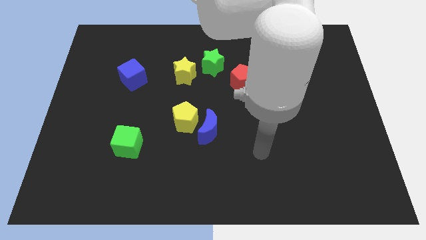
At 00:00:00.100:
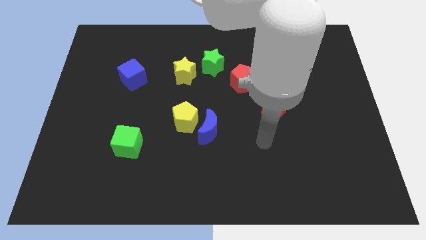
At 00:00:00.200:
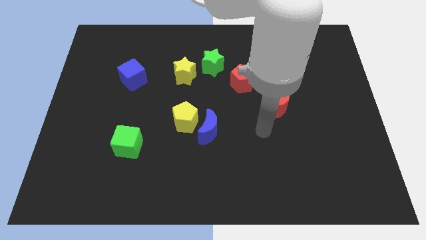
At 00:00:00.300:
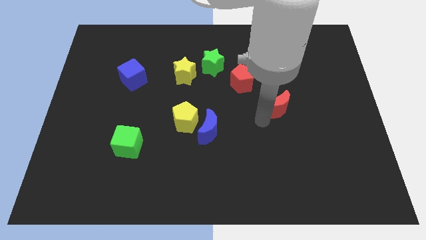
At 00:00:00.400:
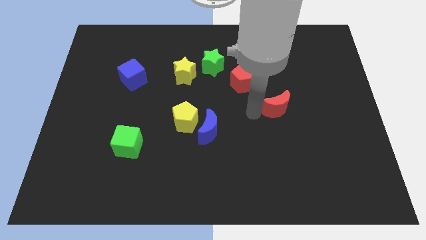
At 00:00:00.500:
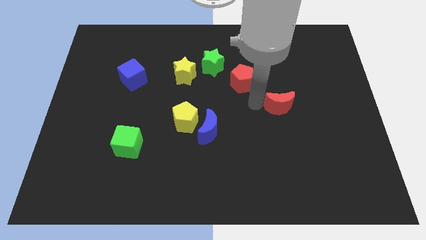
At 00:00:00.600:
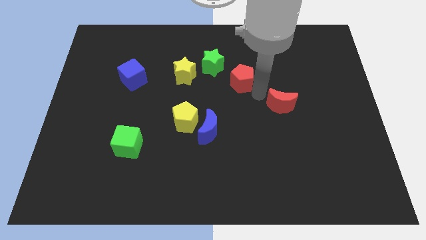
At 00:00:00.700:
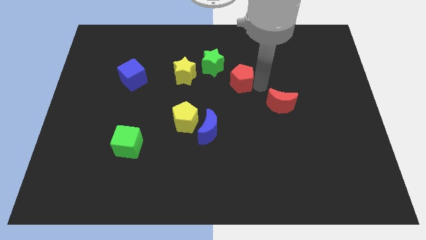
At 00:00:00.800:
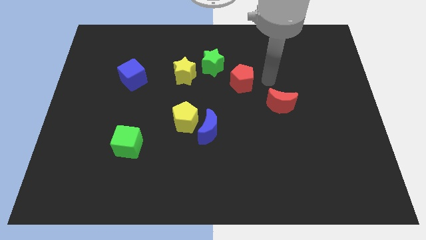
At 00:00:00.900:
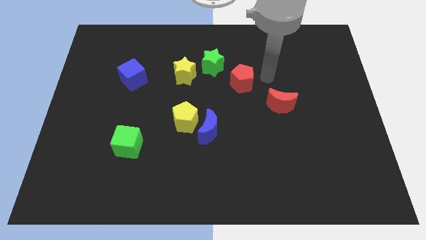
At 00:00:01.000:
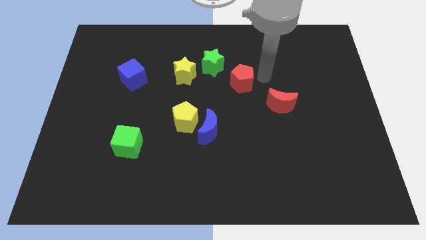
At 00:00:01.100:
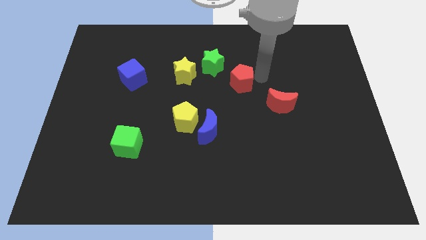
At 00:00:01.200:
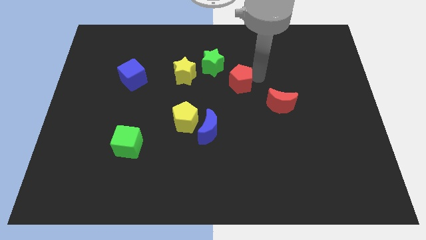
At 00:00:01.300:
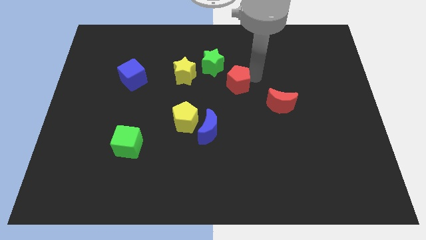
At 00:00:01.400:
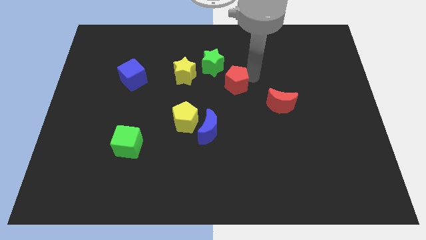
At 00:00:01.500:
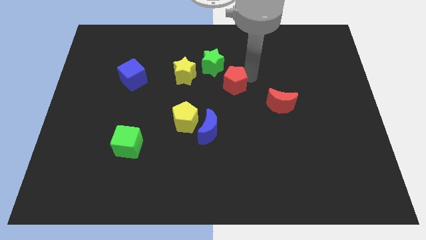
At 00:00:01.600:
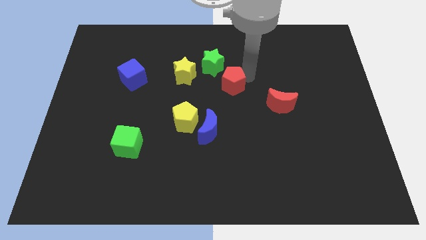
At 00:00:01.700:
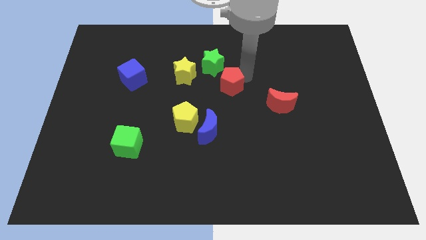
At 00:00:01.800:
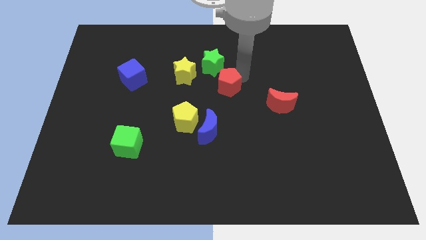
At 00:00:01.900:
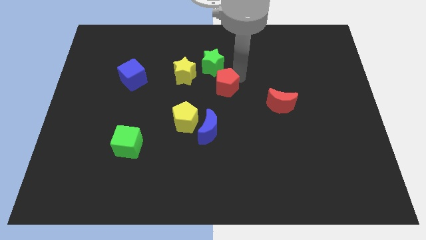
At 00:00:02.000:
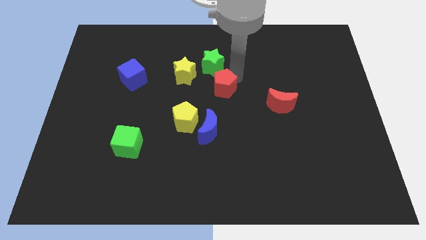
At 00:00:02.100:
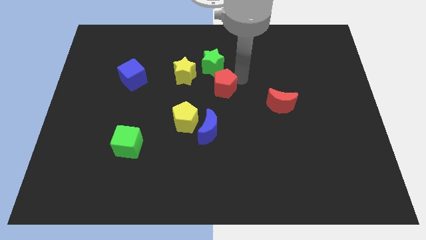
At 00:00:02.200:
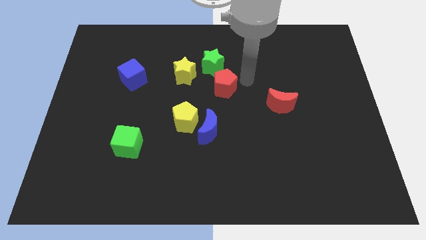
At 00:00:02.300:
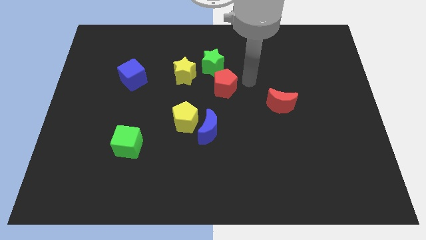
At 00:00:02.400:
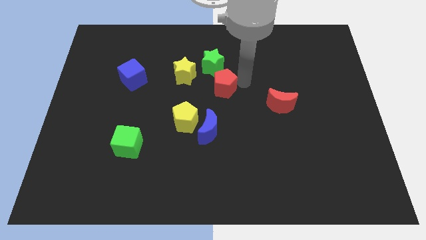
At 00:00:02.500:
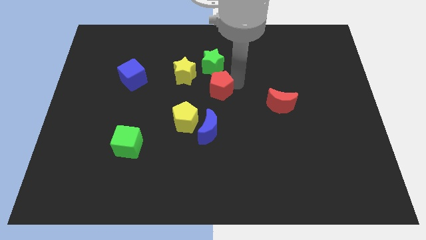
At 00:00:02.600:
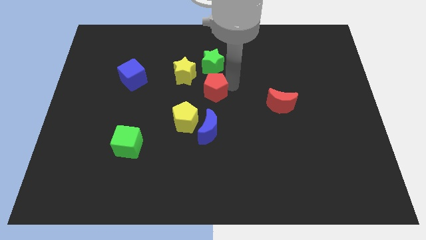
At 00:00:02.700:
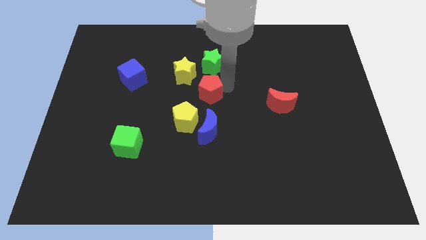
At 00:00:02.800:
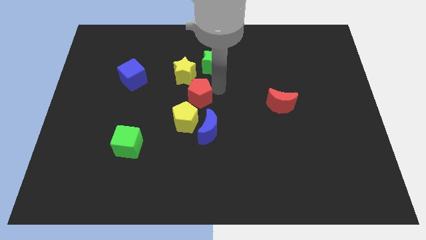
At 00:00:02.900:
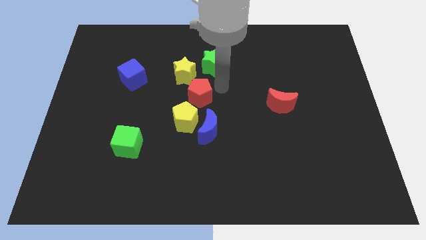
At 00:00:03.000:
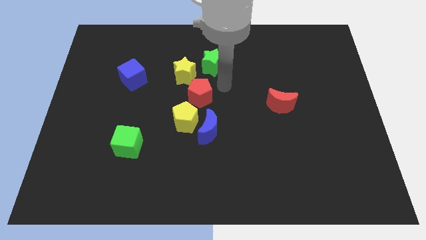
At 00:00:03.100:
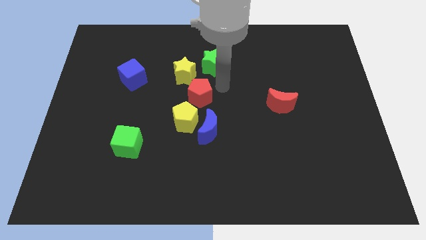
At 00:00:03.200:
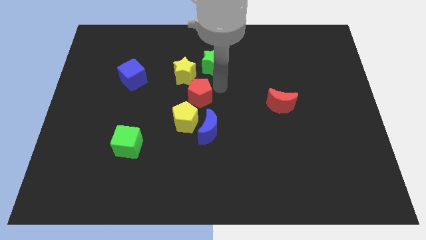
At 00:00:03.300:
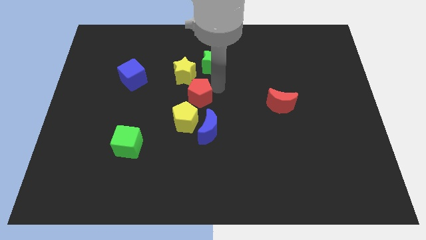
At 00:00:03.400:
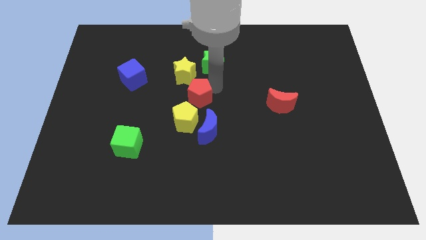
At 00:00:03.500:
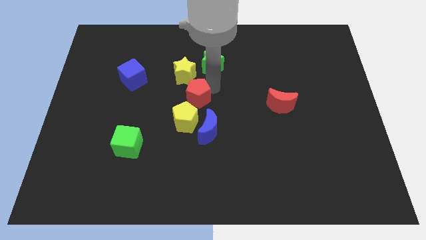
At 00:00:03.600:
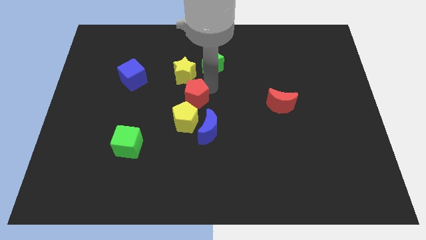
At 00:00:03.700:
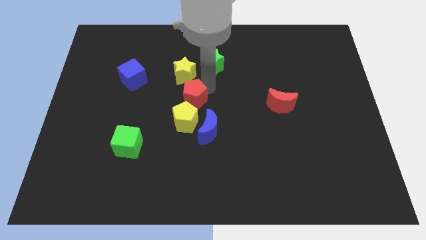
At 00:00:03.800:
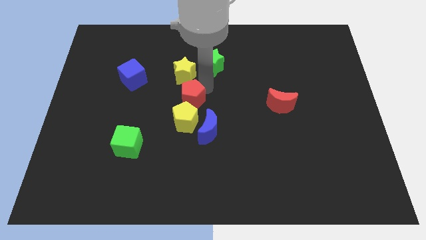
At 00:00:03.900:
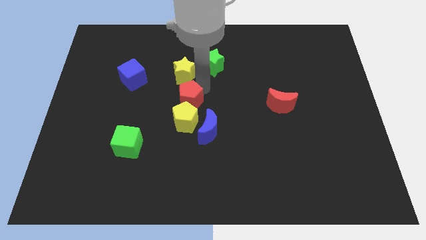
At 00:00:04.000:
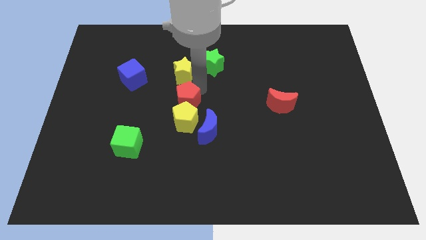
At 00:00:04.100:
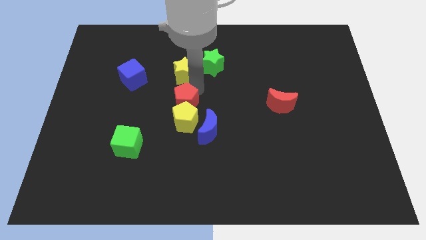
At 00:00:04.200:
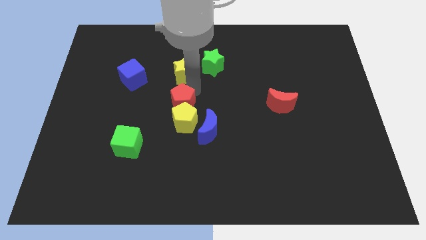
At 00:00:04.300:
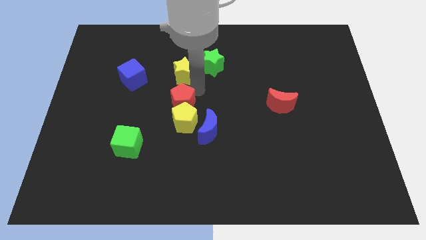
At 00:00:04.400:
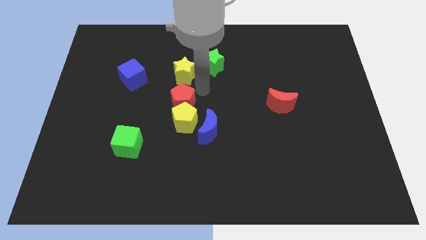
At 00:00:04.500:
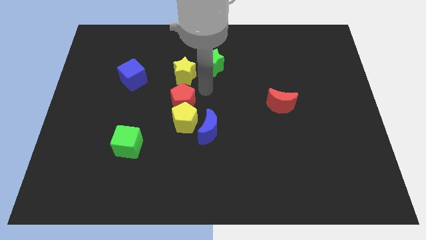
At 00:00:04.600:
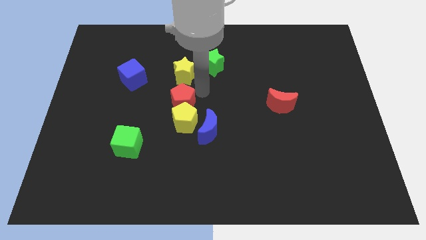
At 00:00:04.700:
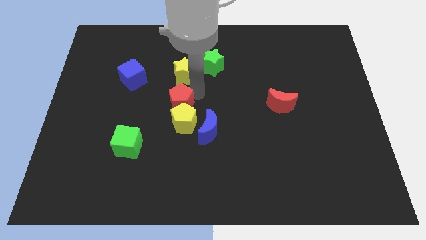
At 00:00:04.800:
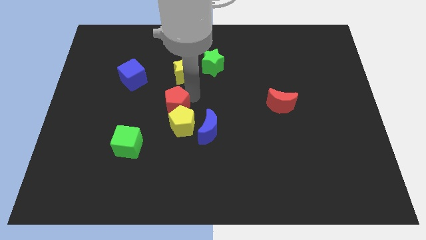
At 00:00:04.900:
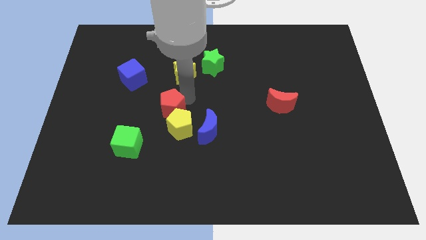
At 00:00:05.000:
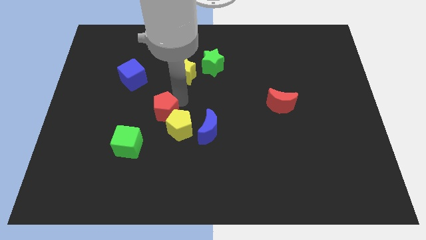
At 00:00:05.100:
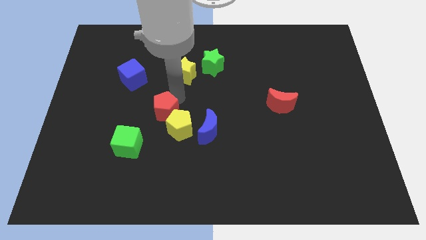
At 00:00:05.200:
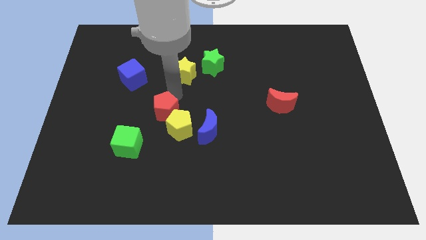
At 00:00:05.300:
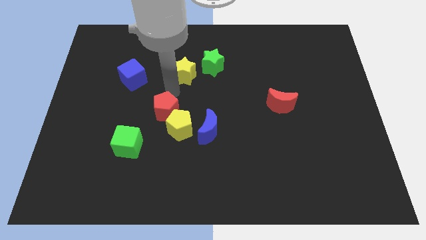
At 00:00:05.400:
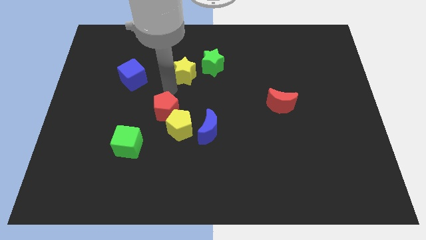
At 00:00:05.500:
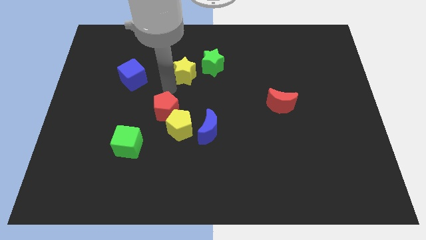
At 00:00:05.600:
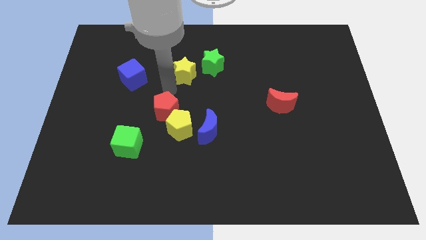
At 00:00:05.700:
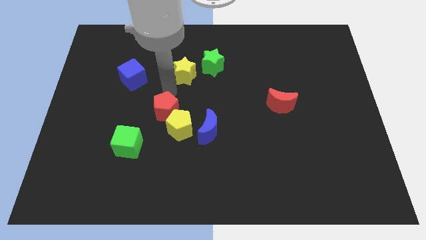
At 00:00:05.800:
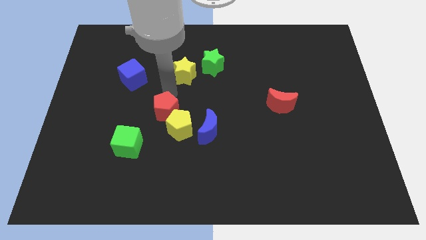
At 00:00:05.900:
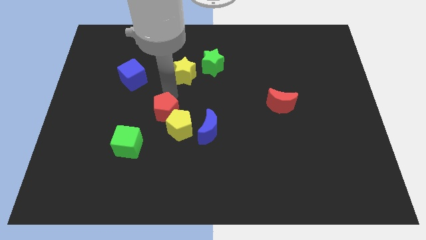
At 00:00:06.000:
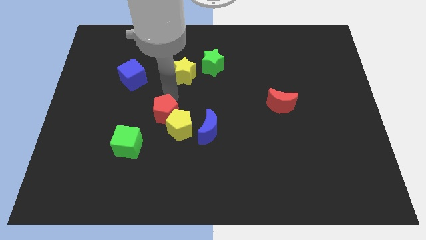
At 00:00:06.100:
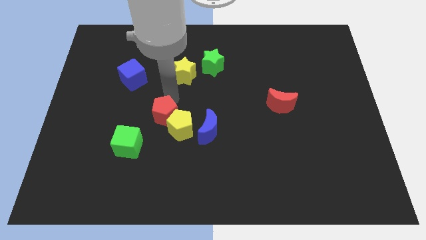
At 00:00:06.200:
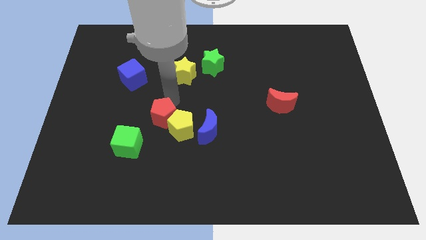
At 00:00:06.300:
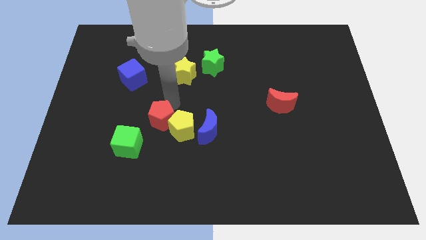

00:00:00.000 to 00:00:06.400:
push the red pentagon down and left diagonally

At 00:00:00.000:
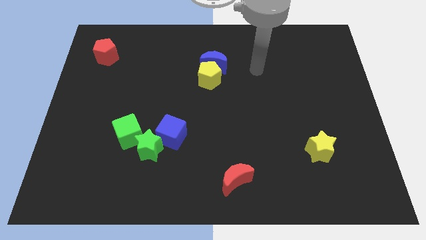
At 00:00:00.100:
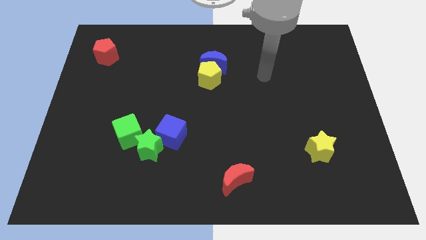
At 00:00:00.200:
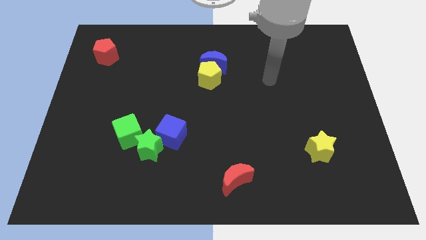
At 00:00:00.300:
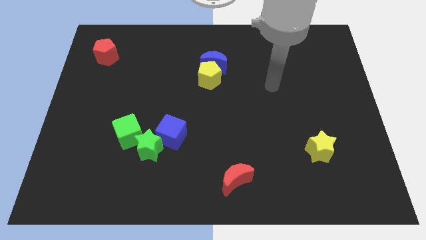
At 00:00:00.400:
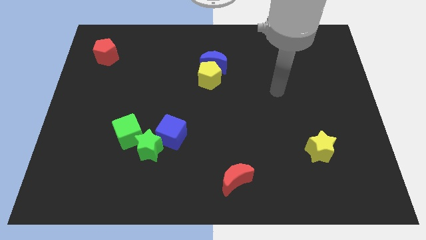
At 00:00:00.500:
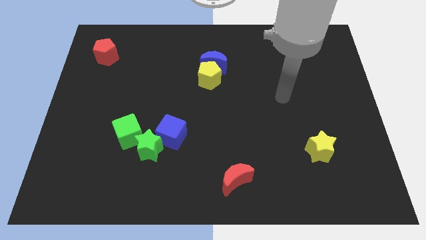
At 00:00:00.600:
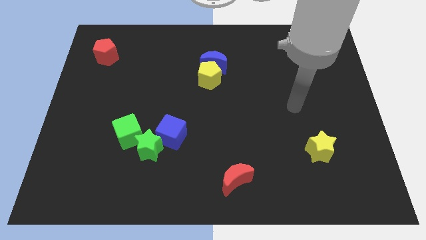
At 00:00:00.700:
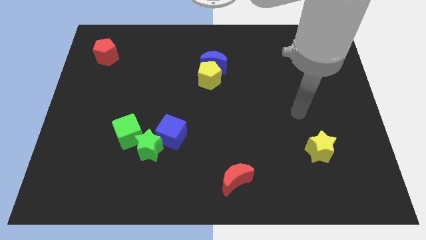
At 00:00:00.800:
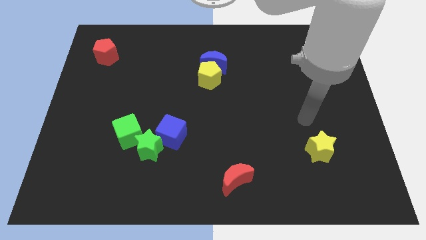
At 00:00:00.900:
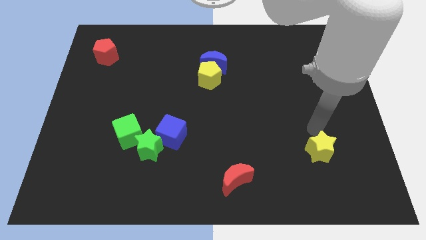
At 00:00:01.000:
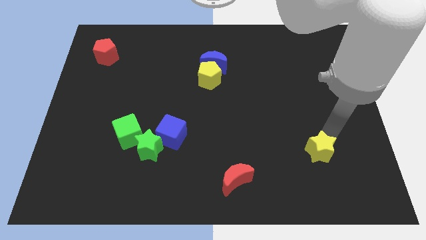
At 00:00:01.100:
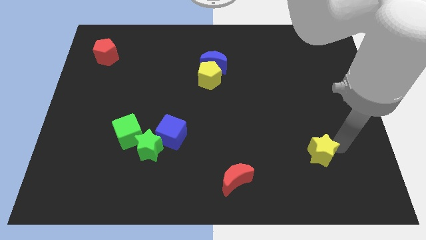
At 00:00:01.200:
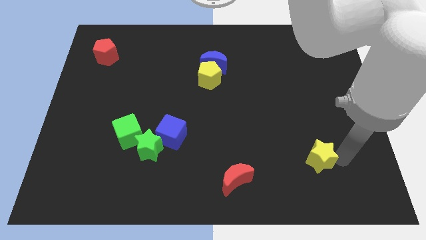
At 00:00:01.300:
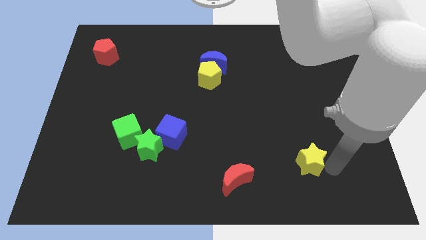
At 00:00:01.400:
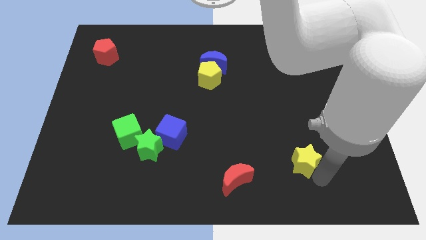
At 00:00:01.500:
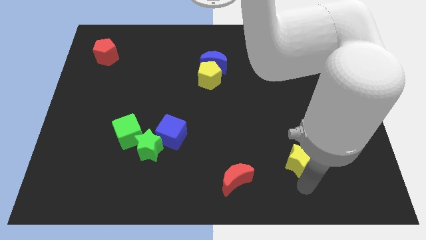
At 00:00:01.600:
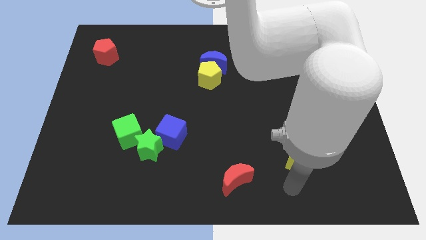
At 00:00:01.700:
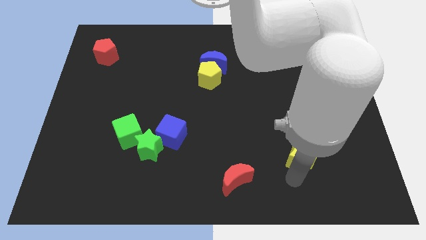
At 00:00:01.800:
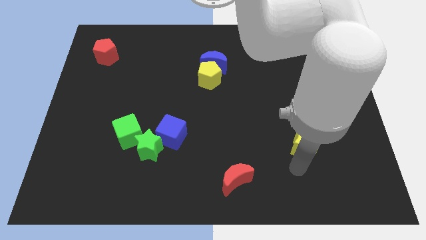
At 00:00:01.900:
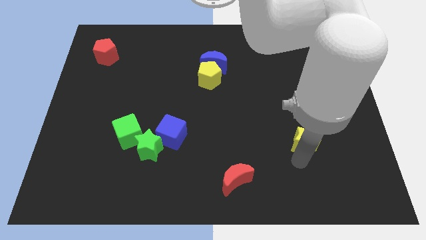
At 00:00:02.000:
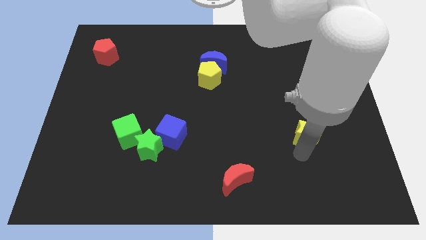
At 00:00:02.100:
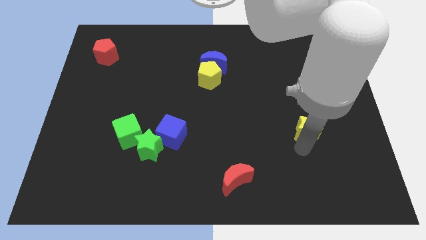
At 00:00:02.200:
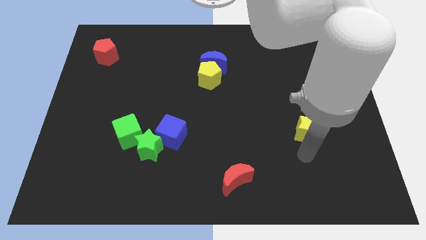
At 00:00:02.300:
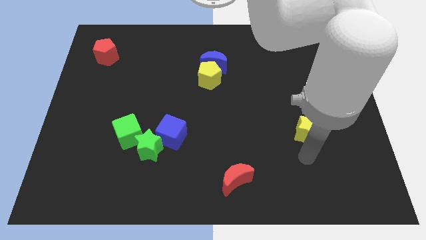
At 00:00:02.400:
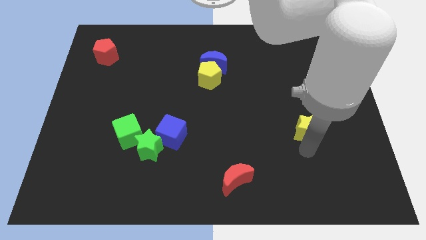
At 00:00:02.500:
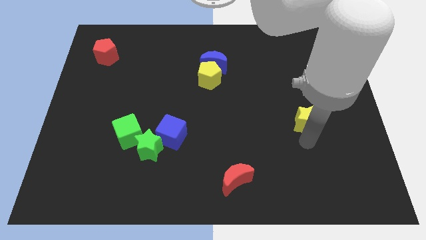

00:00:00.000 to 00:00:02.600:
move the yellow star somewhat upwards
